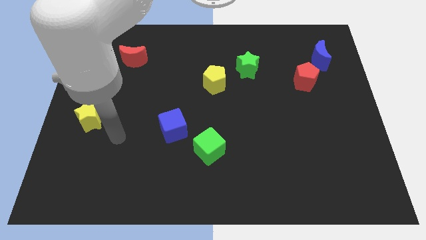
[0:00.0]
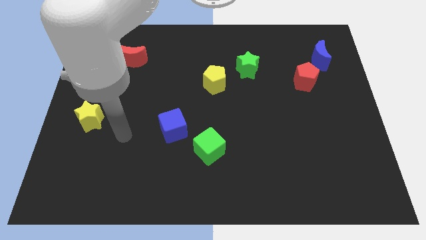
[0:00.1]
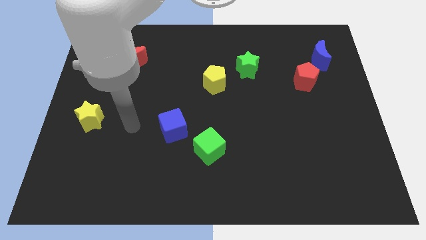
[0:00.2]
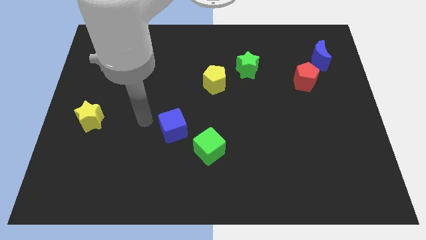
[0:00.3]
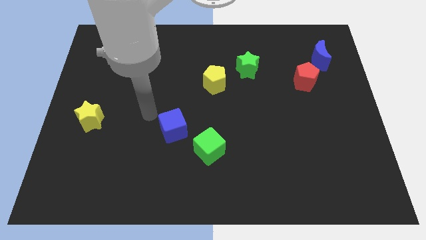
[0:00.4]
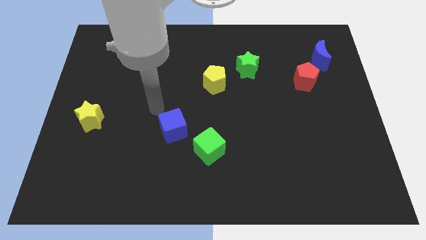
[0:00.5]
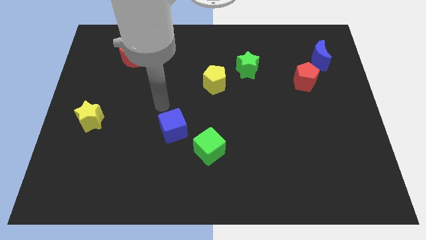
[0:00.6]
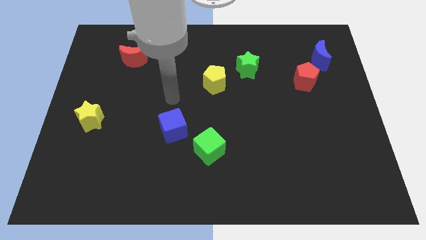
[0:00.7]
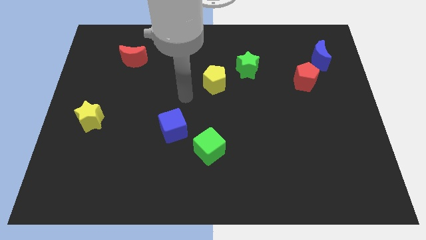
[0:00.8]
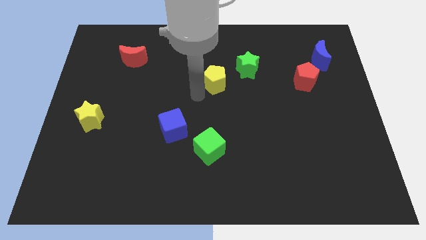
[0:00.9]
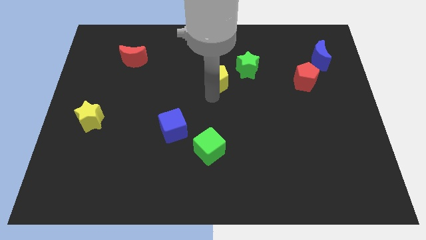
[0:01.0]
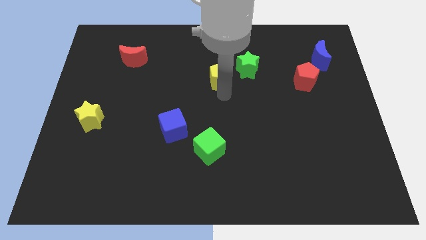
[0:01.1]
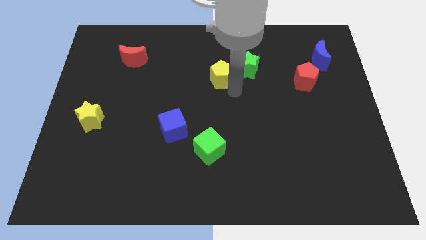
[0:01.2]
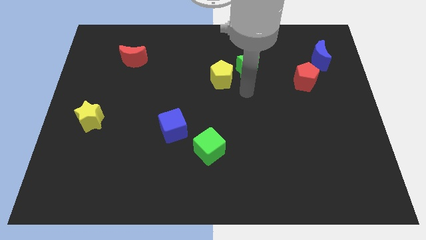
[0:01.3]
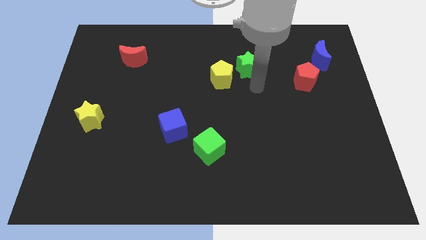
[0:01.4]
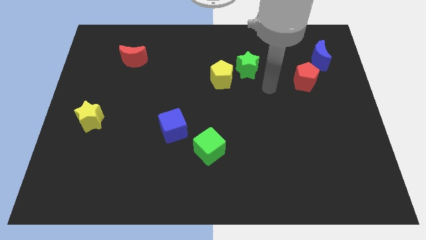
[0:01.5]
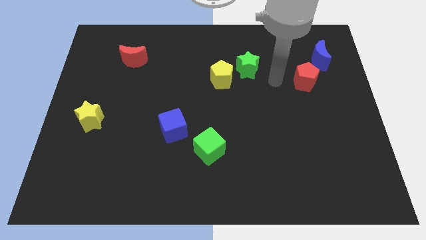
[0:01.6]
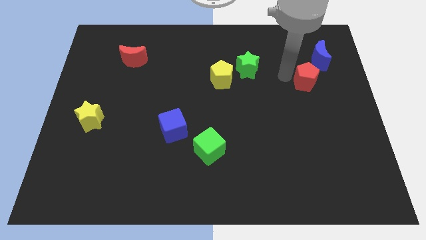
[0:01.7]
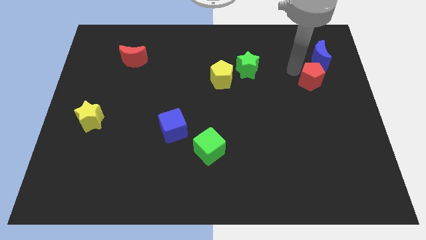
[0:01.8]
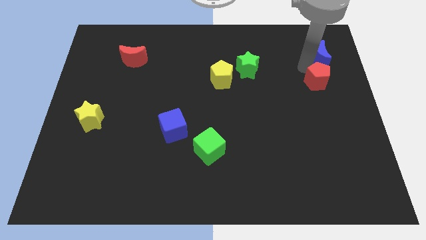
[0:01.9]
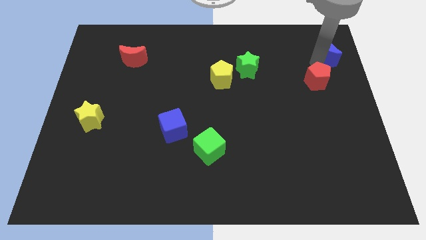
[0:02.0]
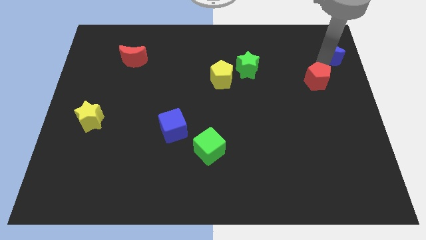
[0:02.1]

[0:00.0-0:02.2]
separate the red pentagon from the blue moon

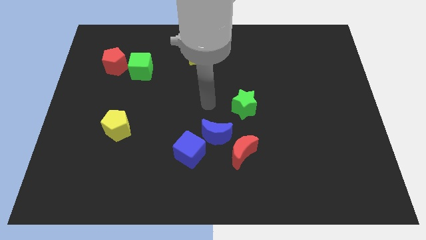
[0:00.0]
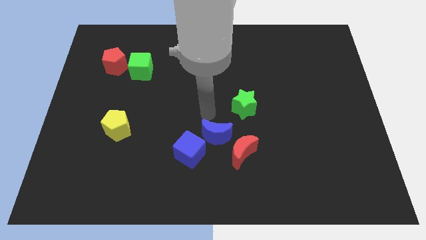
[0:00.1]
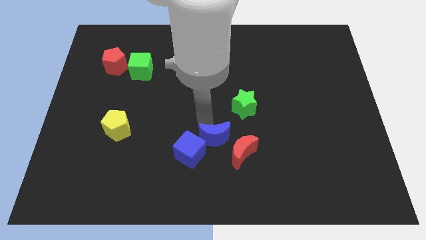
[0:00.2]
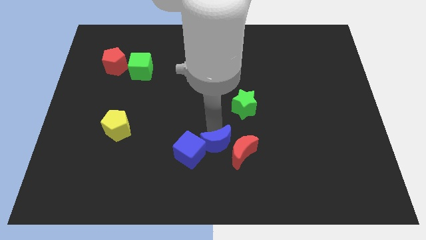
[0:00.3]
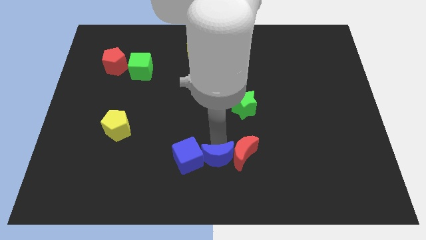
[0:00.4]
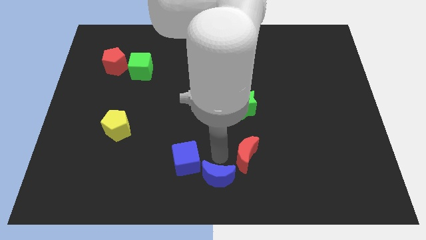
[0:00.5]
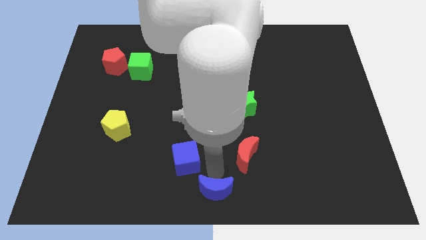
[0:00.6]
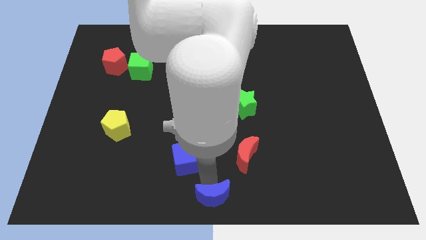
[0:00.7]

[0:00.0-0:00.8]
separate the blue cube from the blue moon

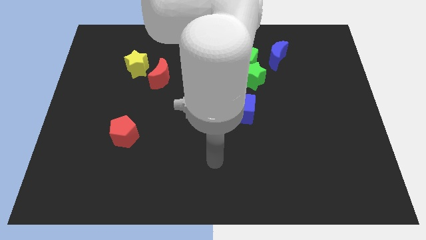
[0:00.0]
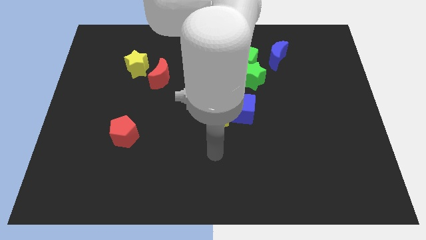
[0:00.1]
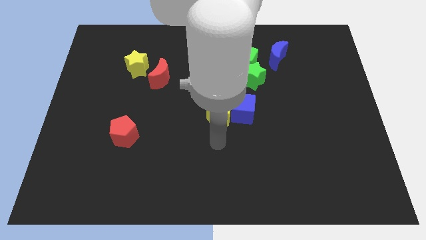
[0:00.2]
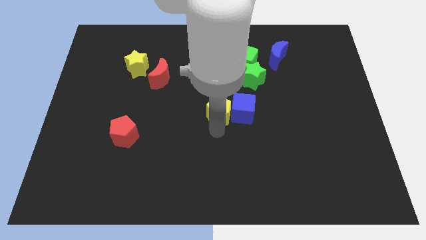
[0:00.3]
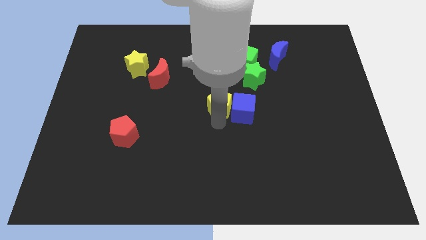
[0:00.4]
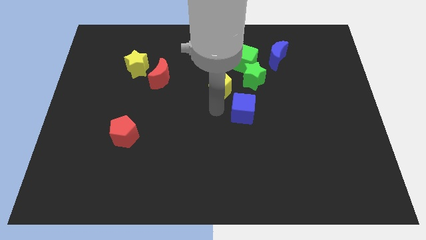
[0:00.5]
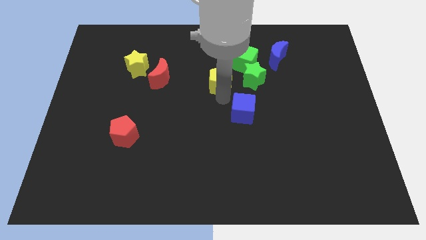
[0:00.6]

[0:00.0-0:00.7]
move the blue cube away from the yellow pentagon

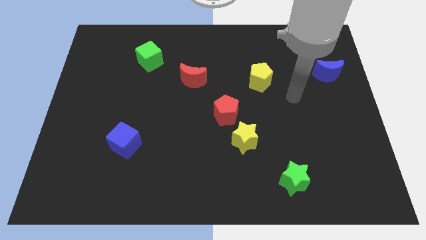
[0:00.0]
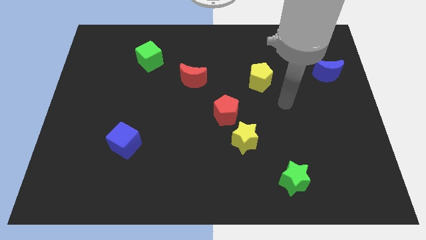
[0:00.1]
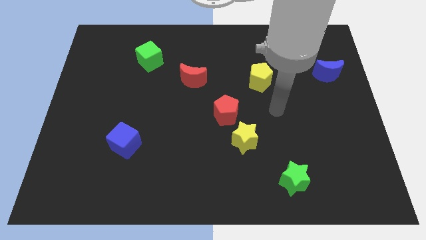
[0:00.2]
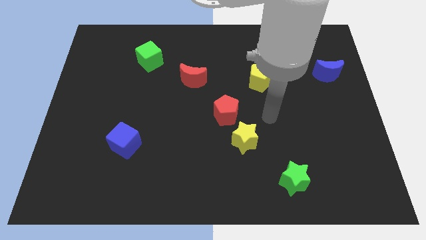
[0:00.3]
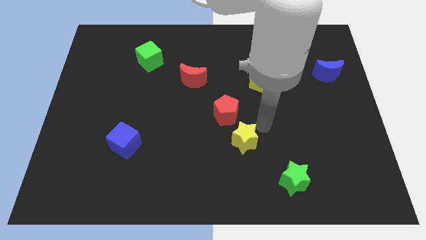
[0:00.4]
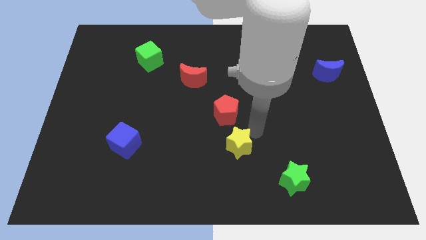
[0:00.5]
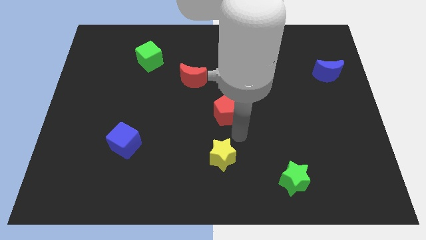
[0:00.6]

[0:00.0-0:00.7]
pull the red pentagon apart from the yellow star

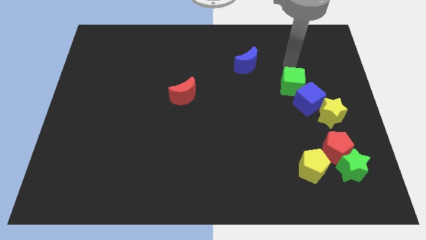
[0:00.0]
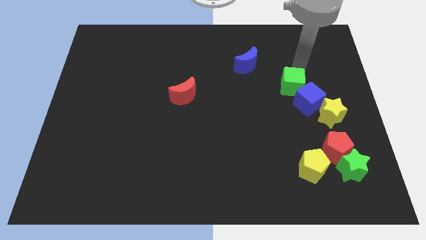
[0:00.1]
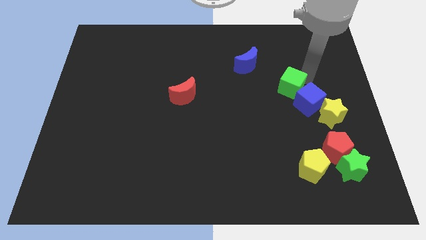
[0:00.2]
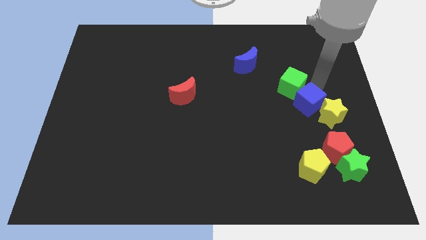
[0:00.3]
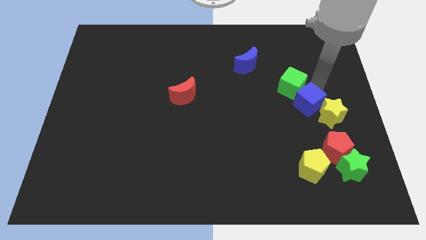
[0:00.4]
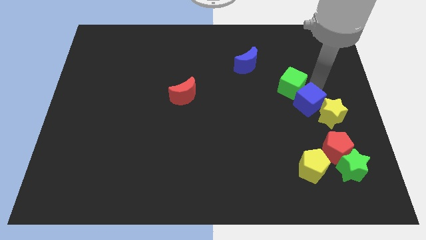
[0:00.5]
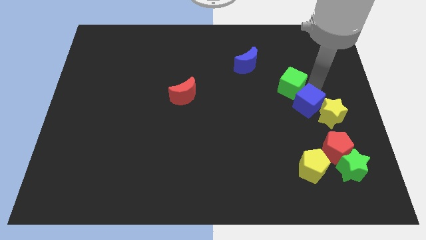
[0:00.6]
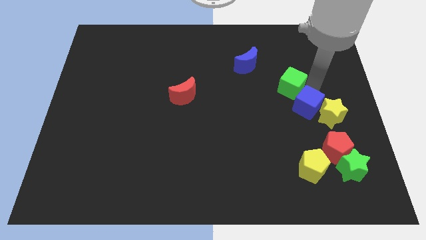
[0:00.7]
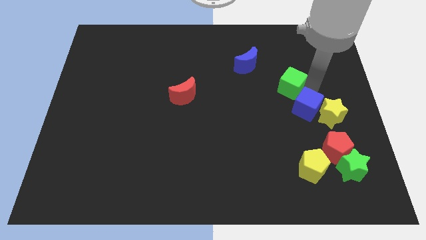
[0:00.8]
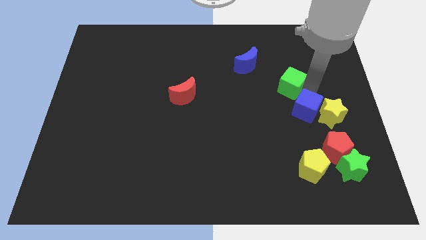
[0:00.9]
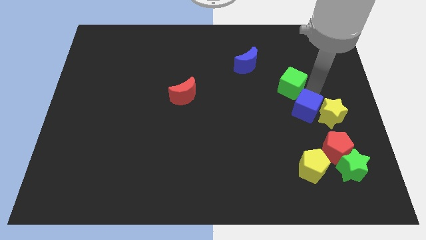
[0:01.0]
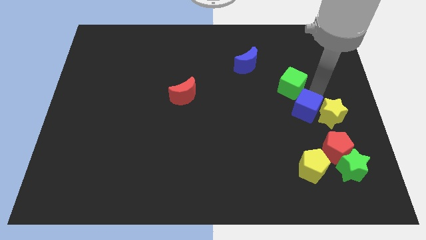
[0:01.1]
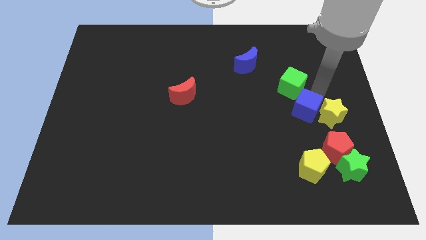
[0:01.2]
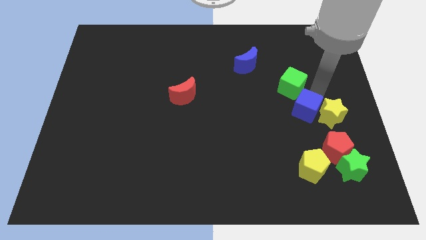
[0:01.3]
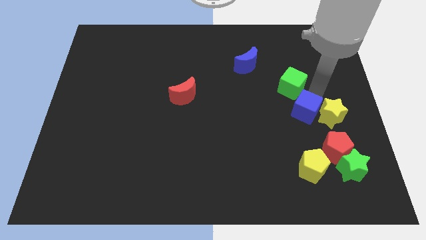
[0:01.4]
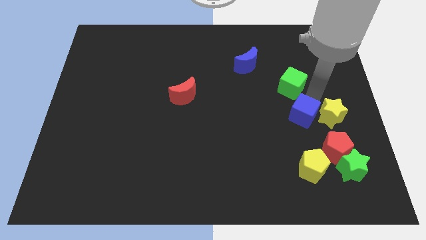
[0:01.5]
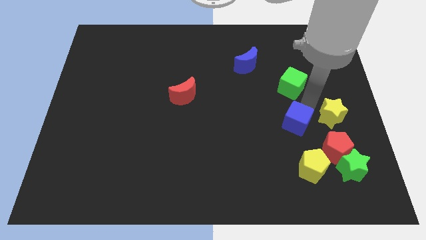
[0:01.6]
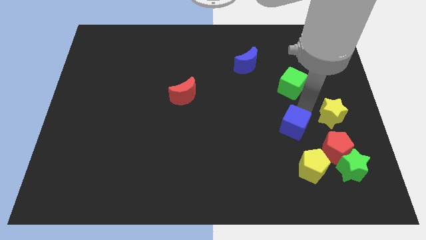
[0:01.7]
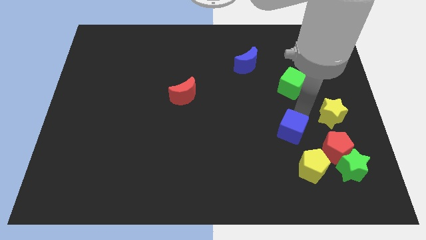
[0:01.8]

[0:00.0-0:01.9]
separate the blue cube from the yellow star and green cube

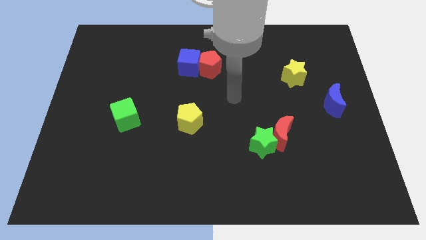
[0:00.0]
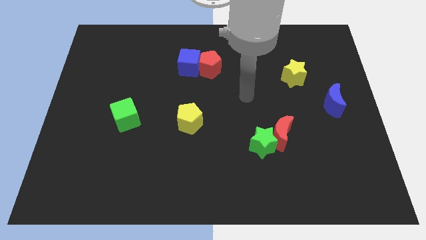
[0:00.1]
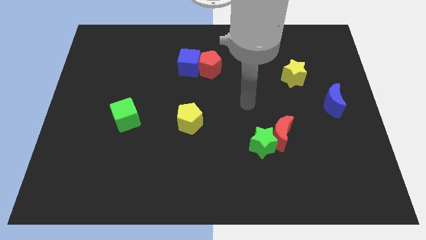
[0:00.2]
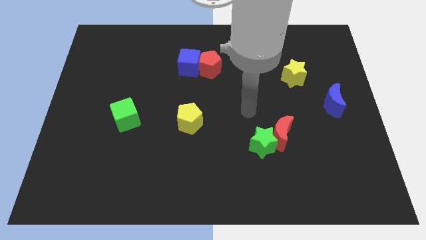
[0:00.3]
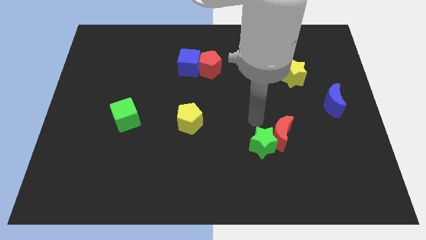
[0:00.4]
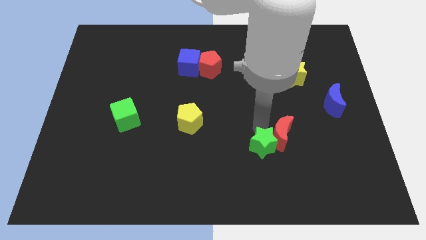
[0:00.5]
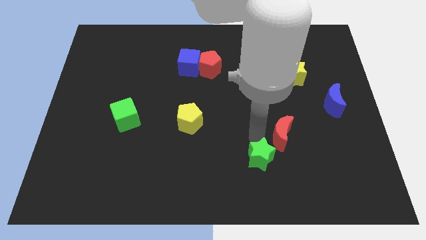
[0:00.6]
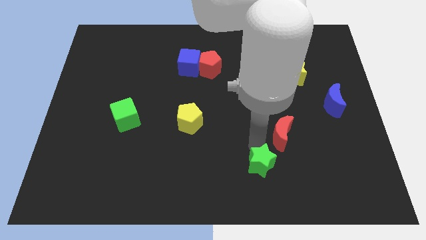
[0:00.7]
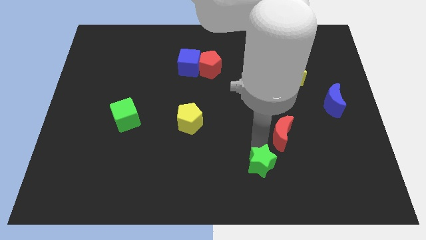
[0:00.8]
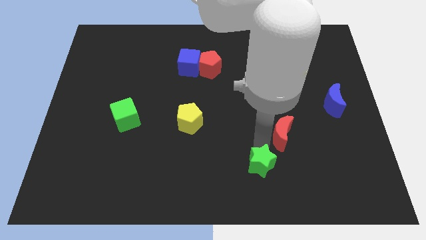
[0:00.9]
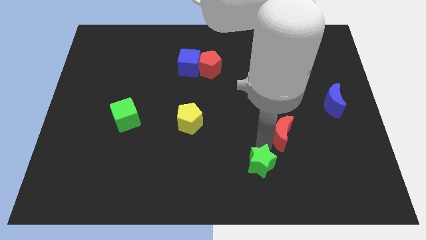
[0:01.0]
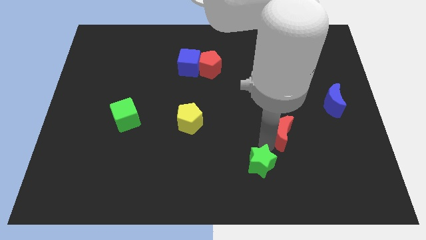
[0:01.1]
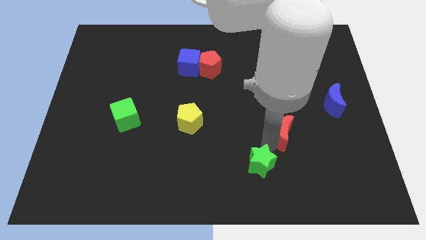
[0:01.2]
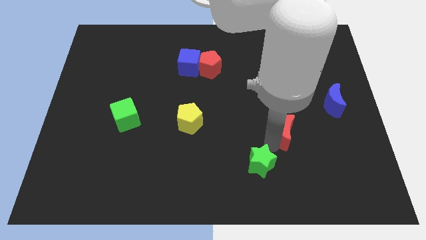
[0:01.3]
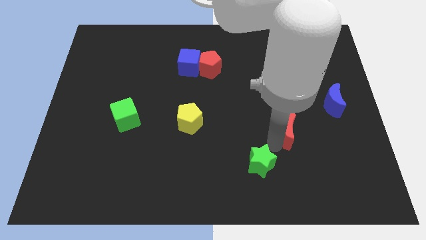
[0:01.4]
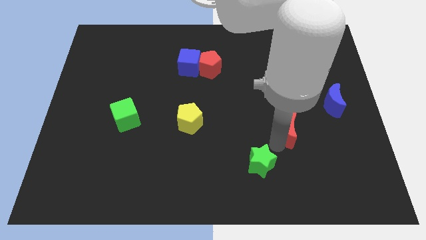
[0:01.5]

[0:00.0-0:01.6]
separate the red moon from the green star

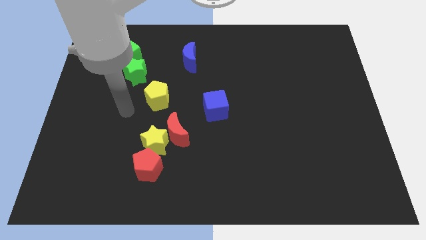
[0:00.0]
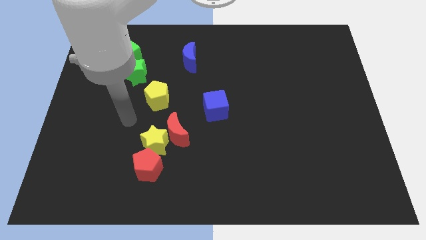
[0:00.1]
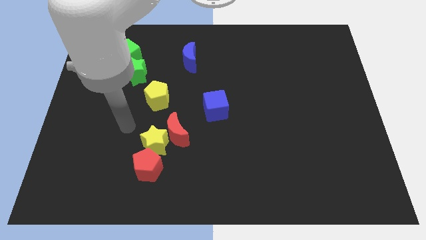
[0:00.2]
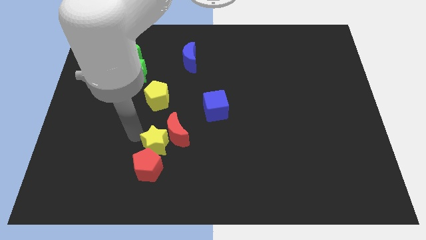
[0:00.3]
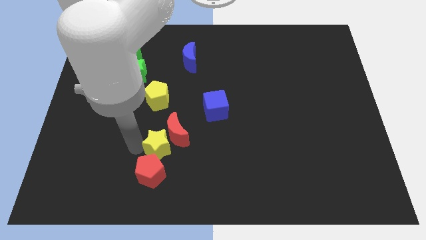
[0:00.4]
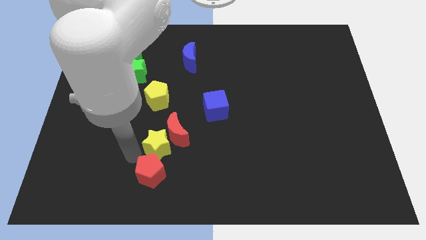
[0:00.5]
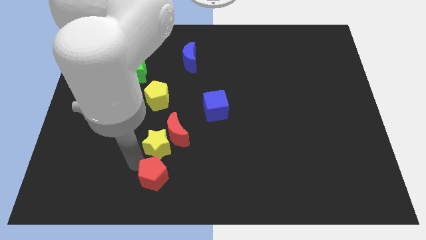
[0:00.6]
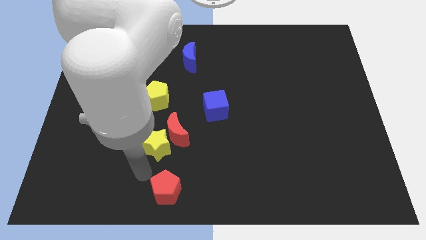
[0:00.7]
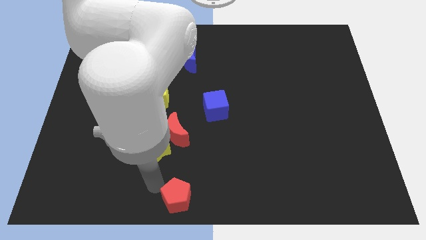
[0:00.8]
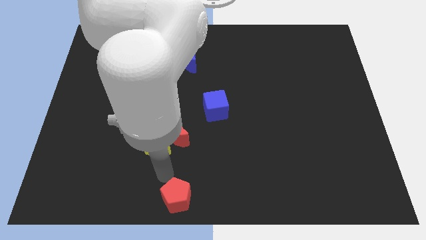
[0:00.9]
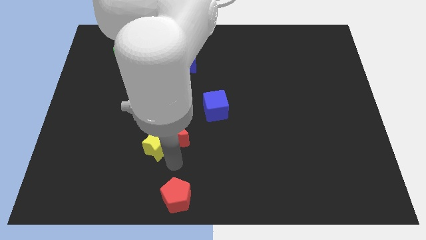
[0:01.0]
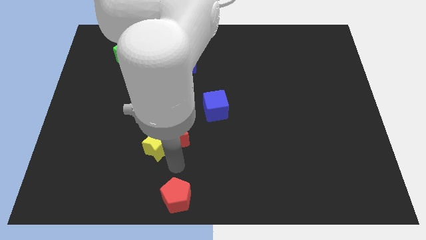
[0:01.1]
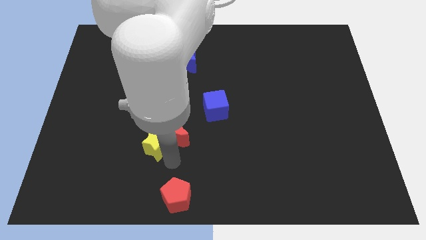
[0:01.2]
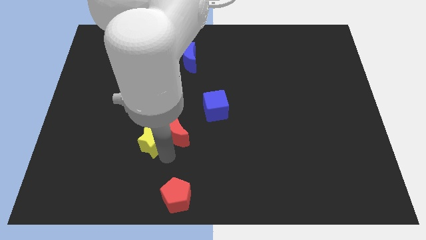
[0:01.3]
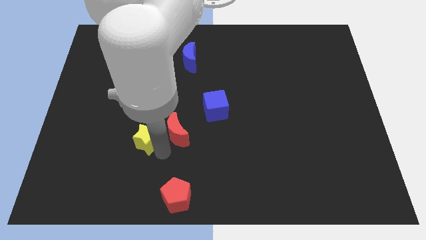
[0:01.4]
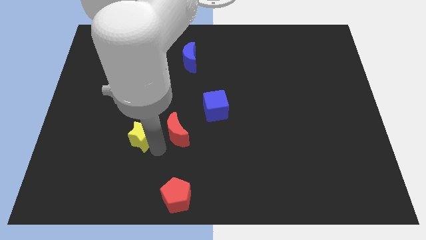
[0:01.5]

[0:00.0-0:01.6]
move the yellow star away from the red moon and red pentagon

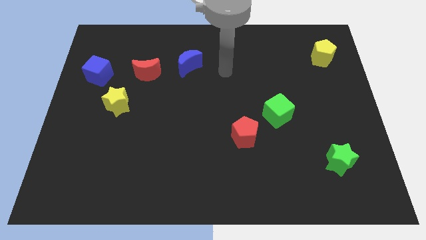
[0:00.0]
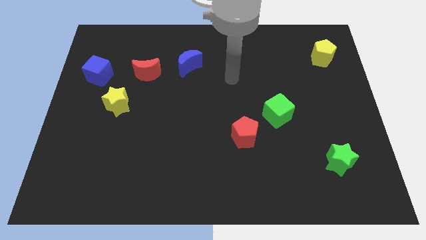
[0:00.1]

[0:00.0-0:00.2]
separate the red pentagon from the green cube
